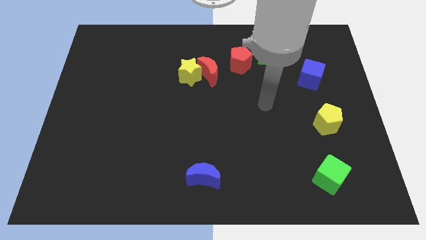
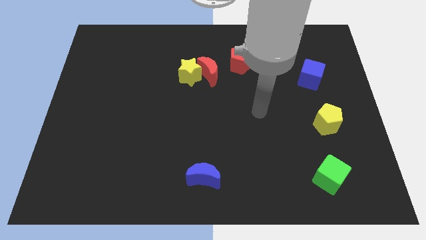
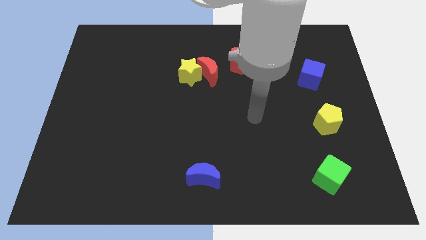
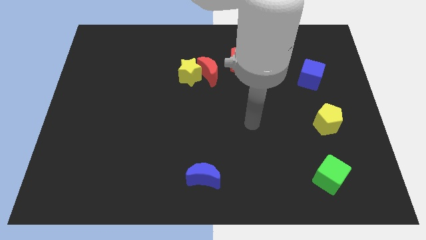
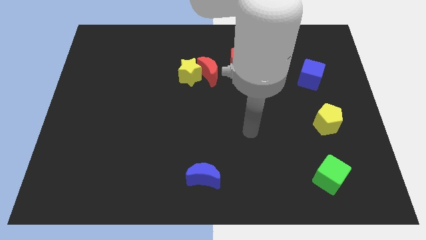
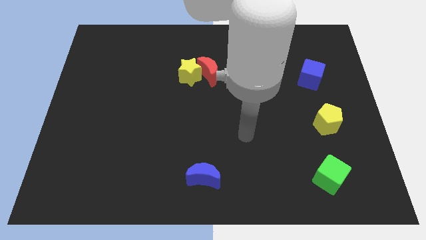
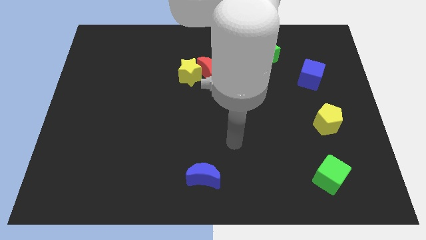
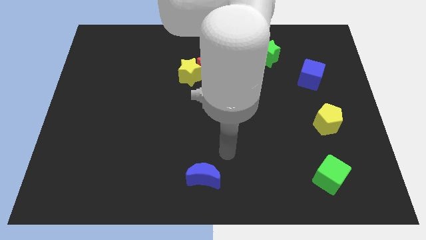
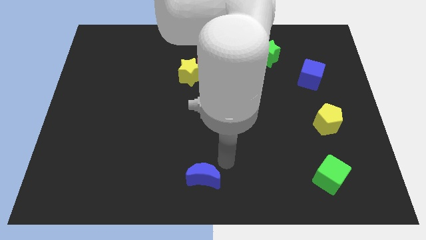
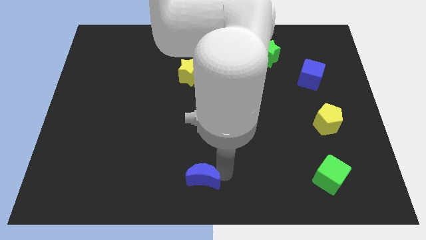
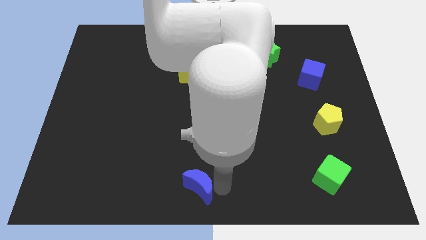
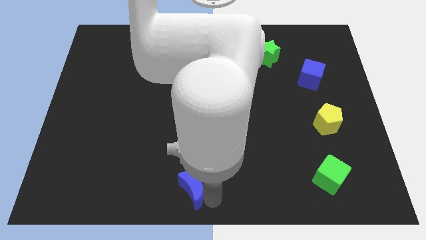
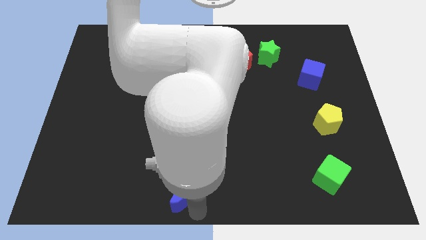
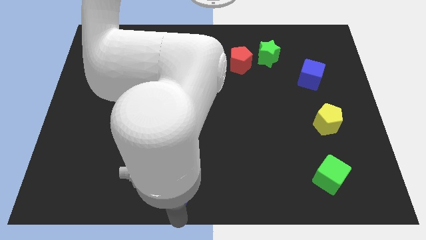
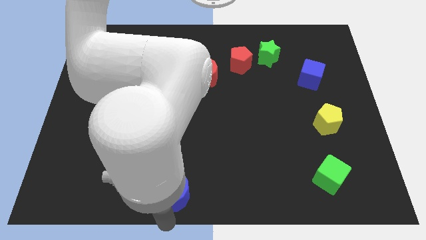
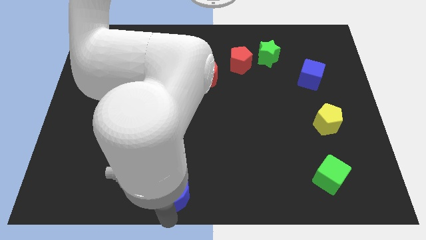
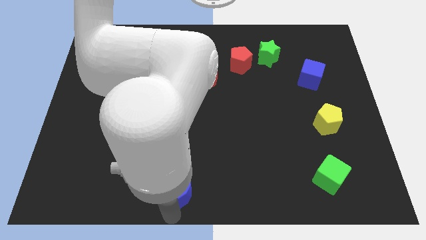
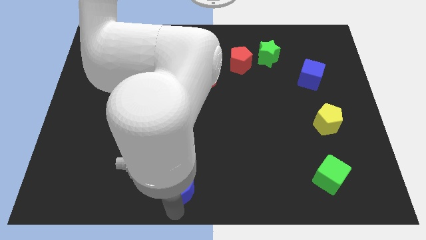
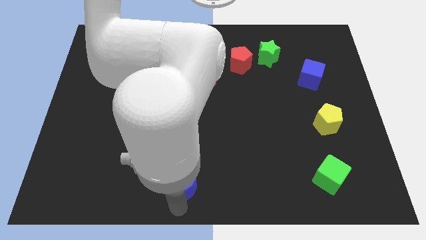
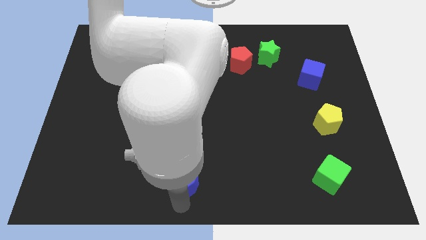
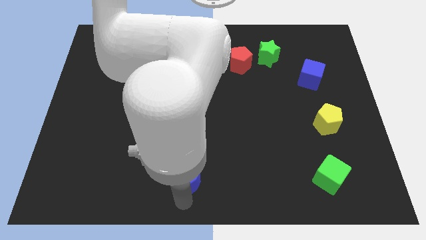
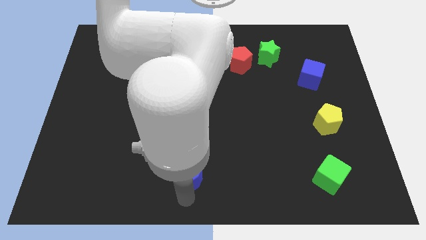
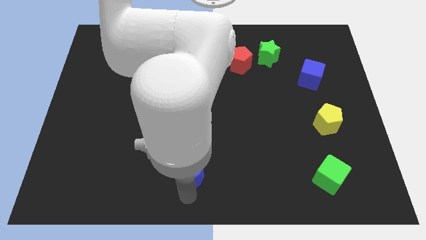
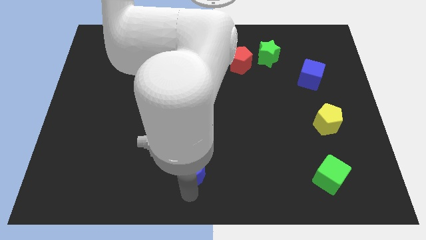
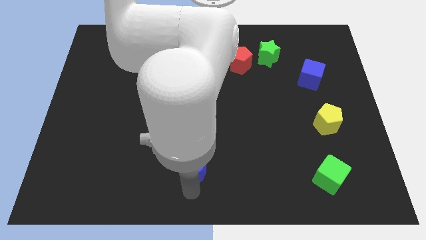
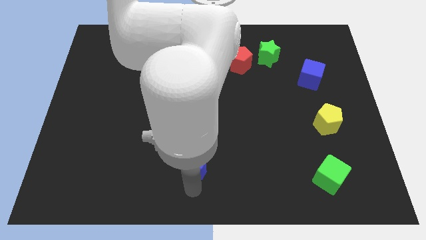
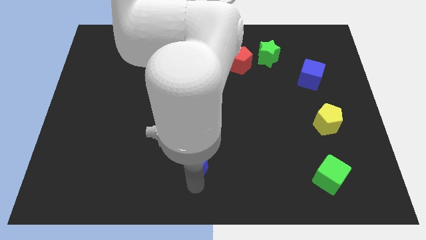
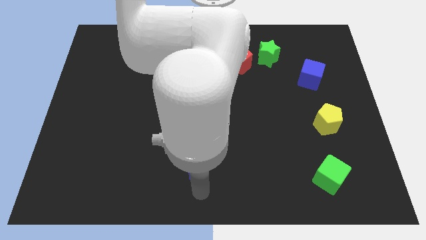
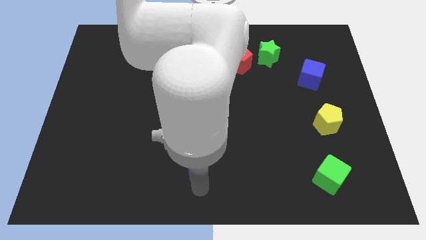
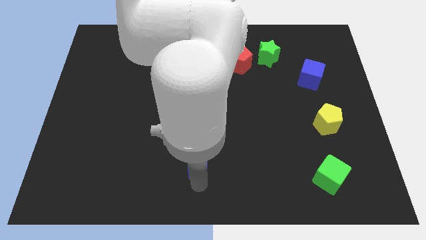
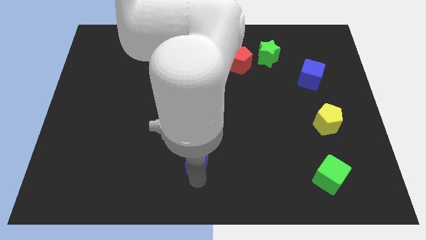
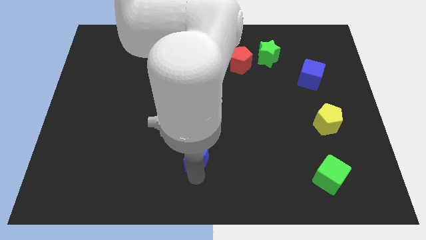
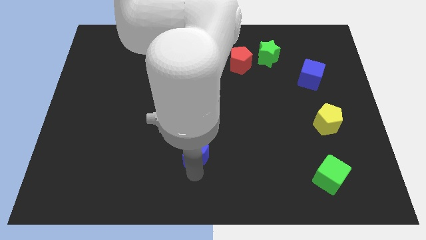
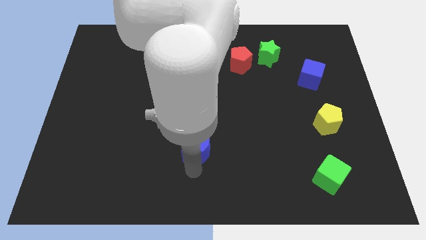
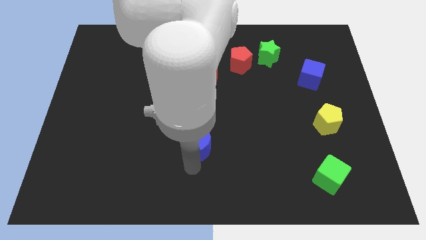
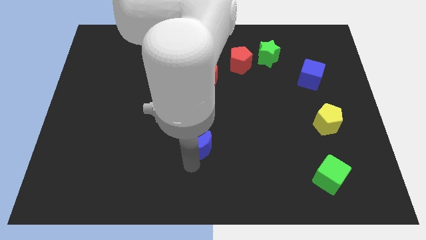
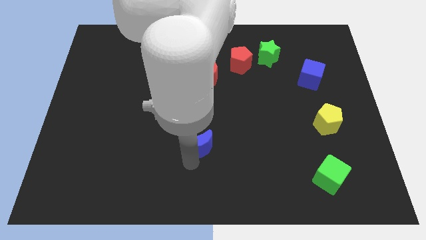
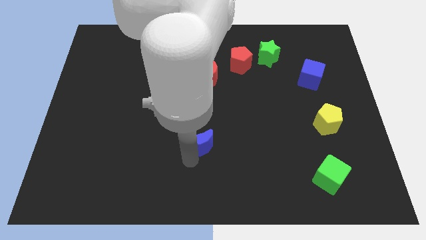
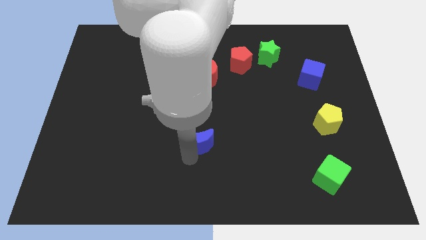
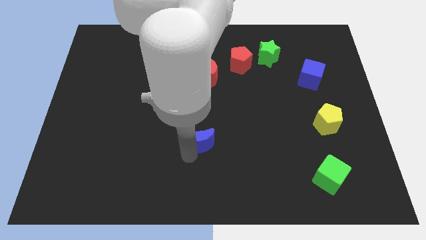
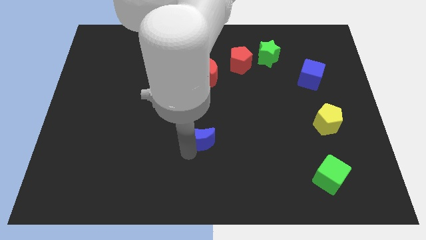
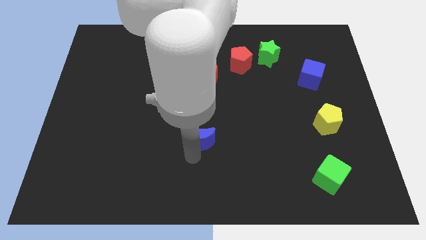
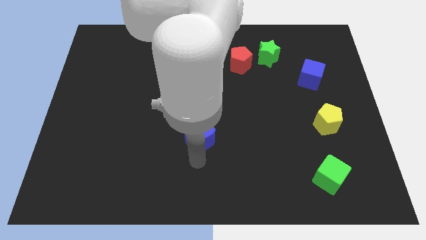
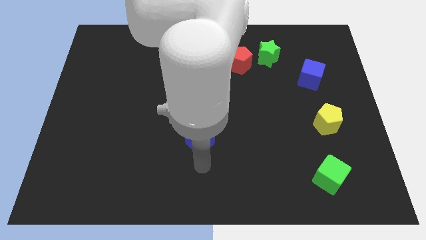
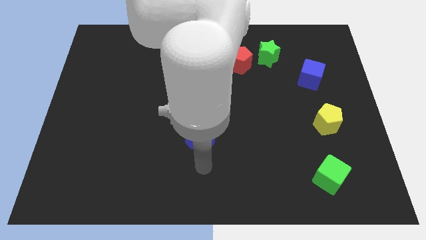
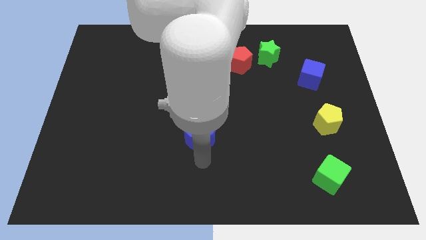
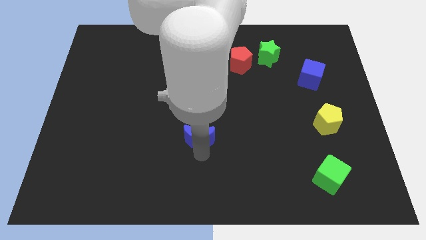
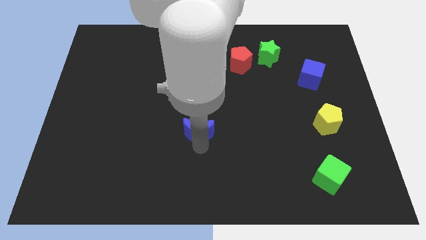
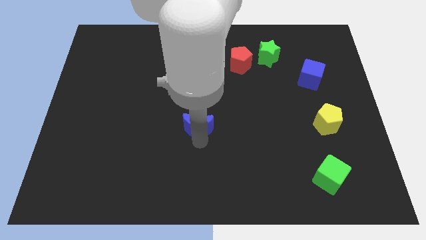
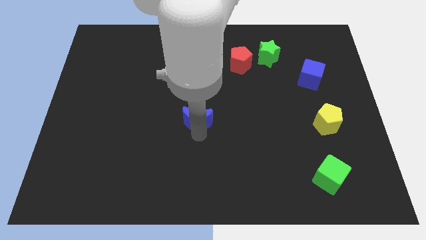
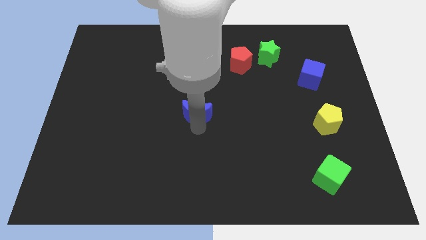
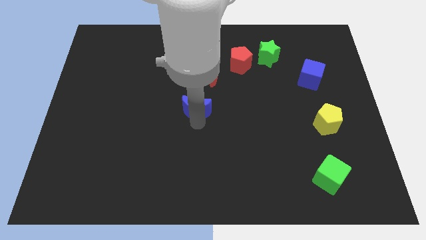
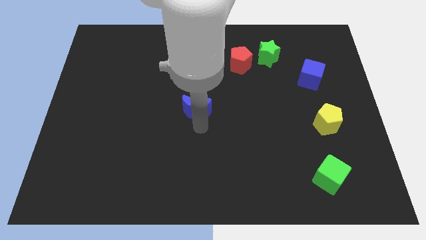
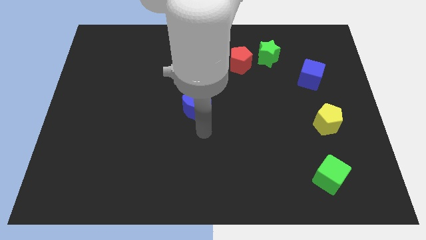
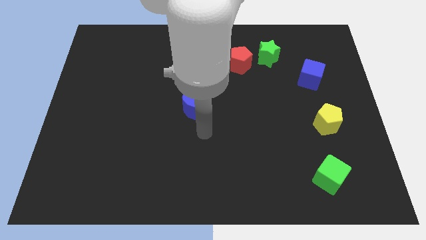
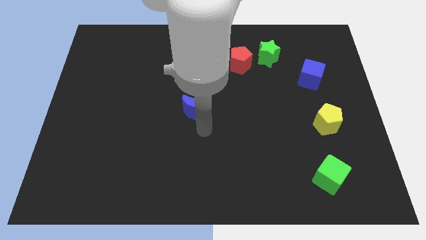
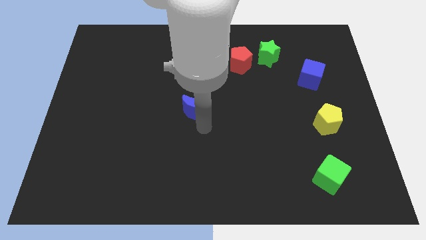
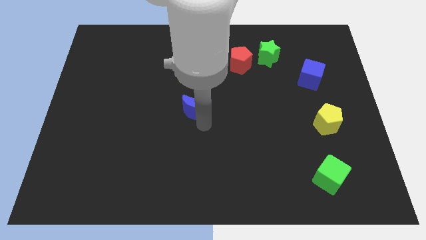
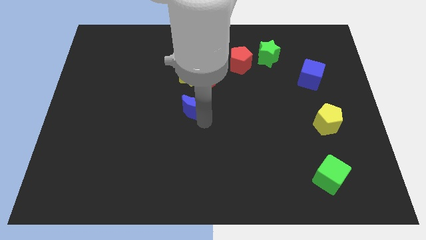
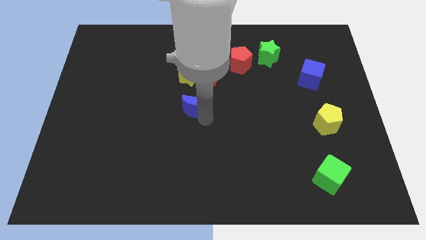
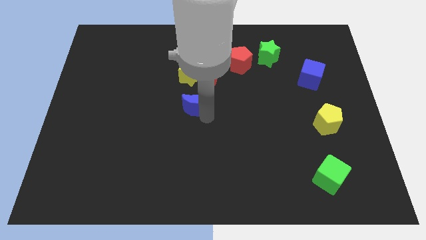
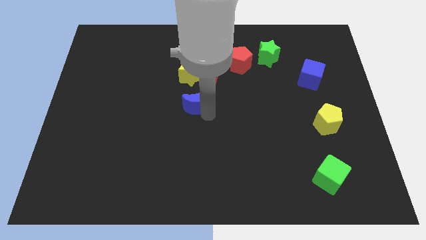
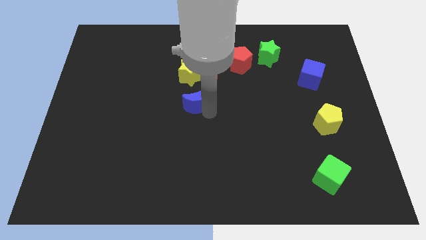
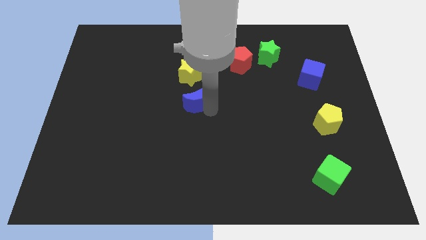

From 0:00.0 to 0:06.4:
put the blue moon diagonally down and to the left of the red moon

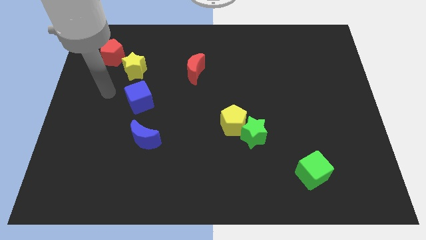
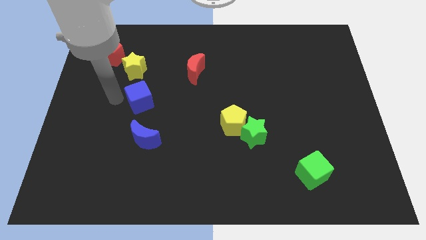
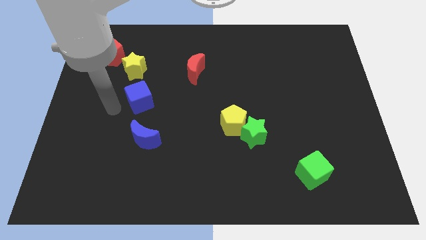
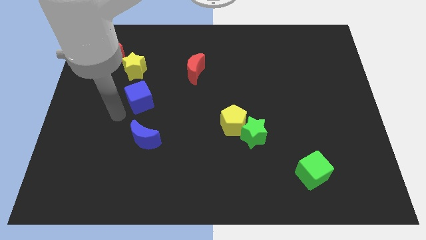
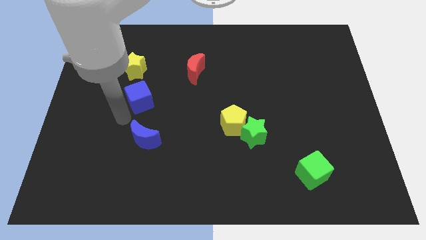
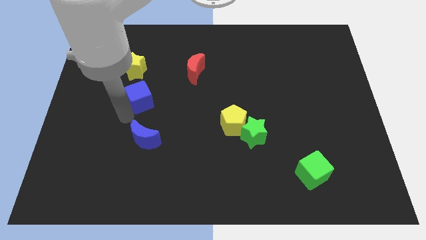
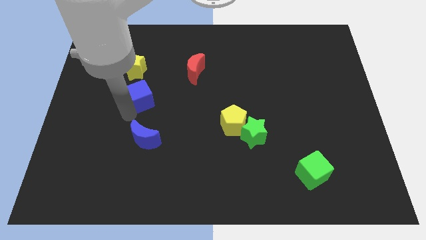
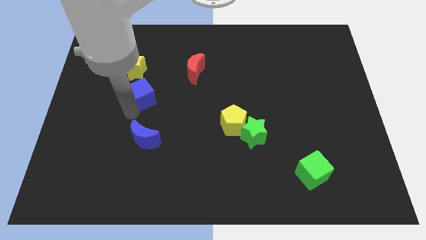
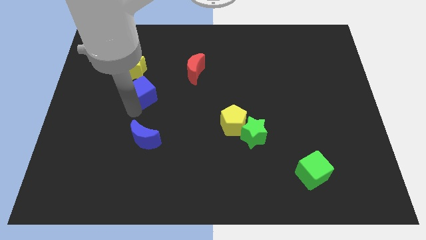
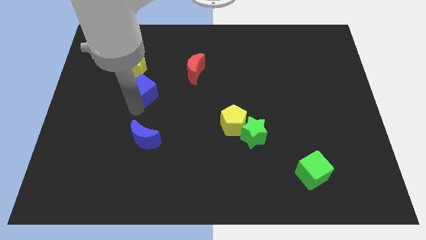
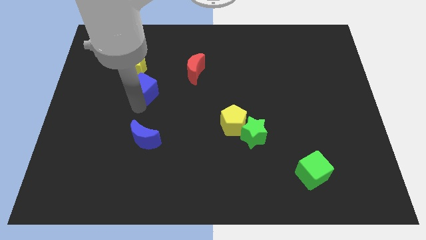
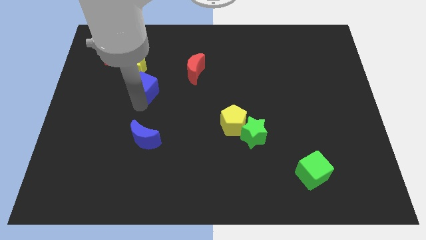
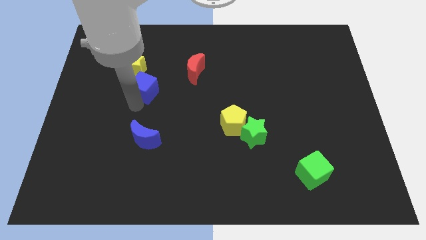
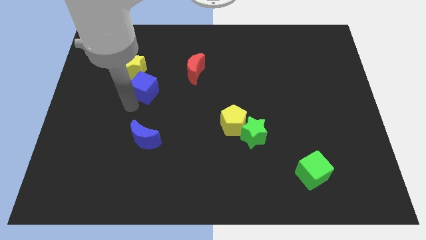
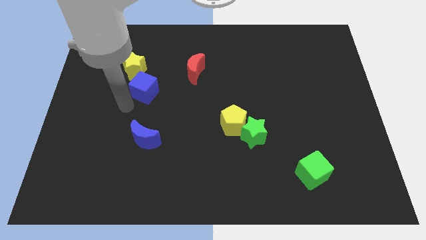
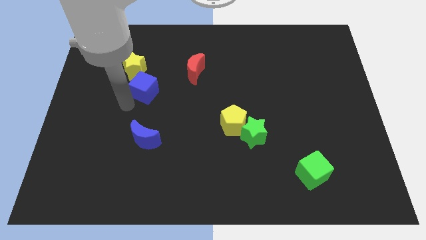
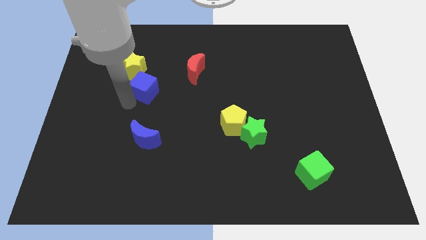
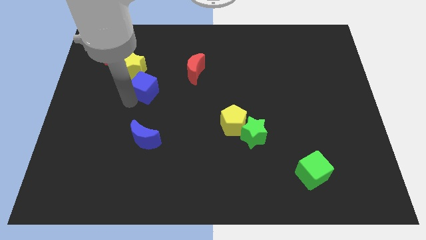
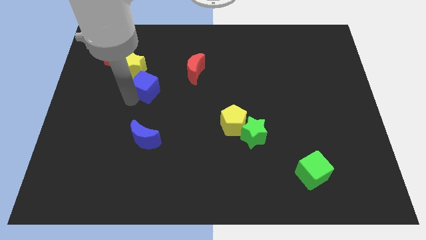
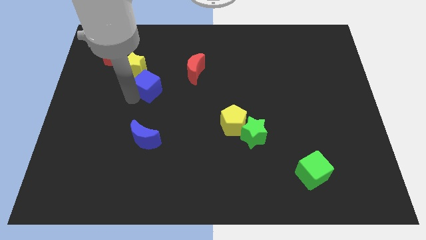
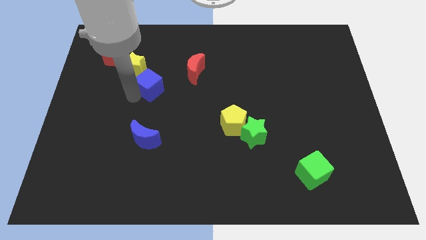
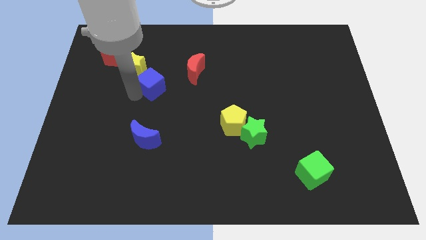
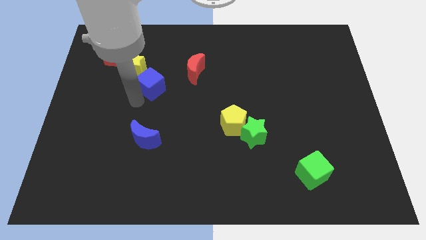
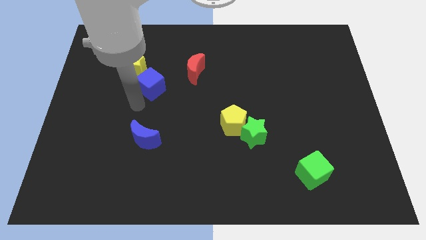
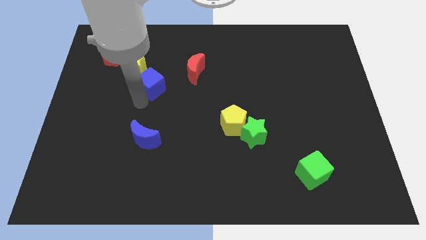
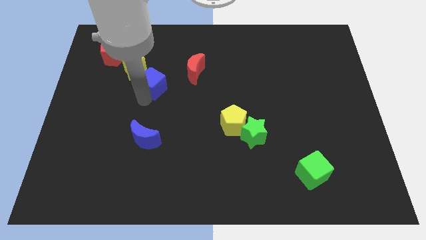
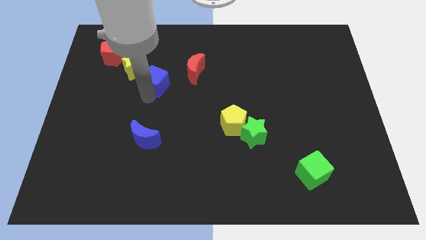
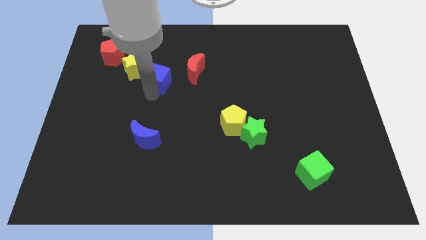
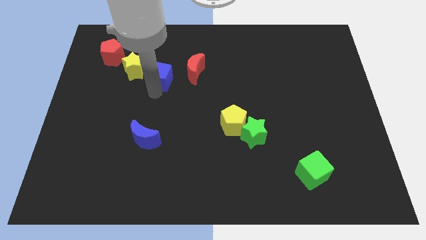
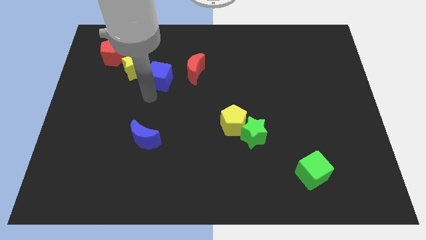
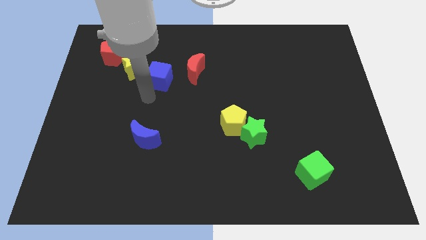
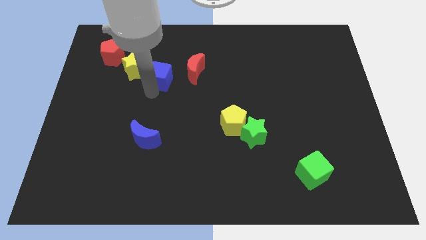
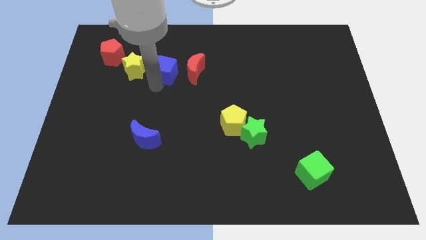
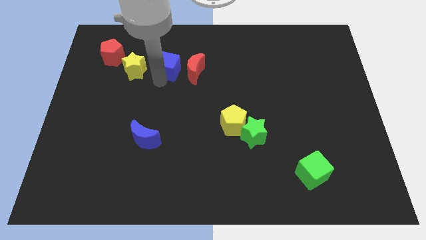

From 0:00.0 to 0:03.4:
push the blue cube to the top left of the red moon
